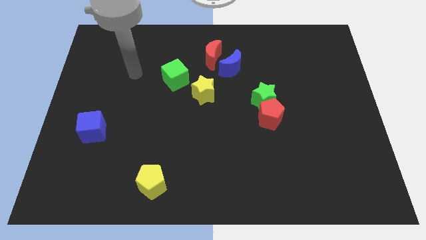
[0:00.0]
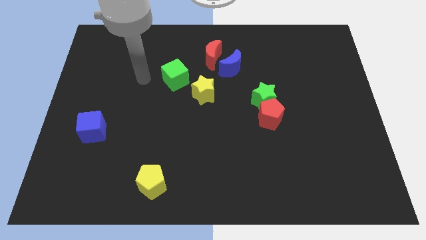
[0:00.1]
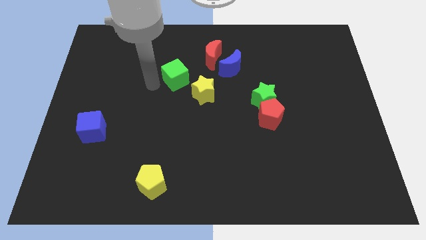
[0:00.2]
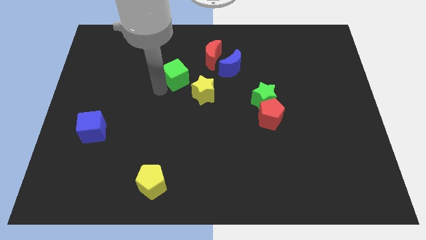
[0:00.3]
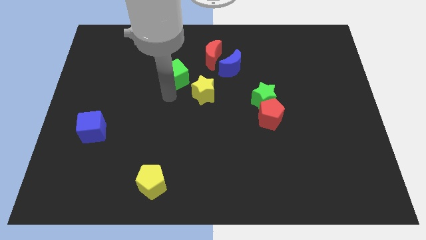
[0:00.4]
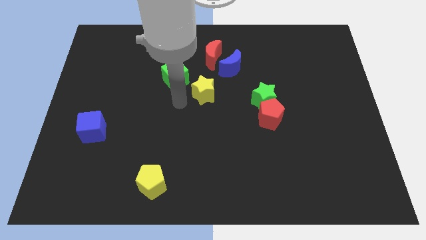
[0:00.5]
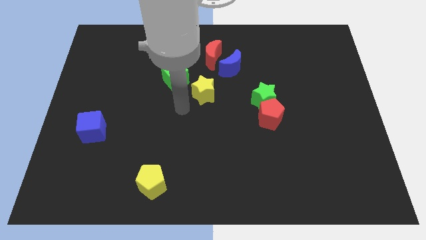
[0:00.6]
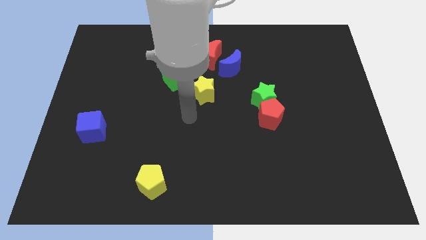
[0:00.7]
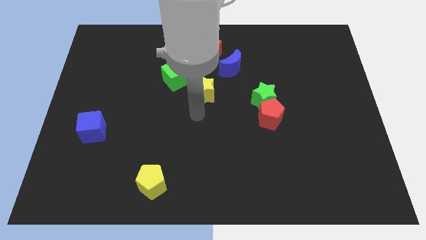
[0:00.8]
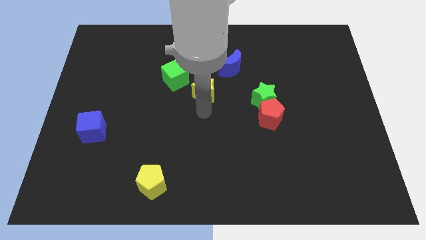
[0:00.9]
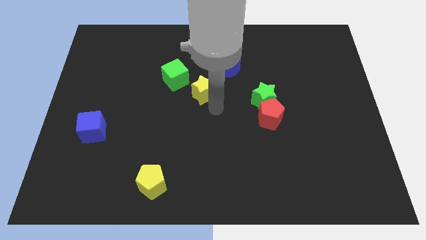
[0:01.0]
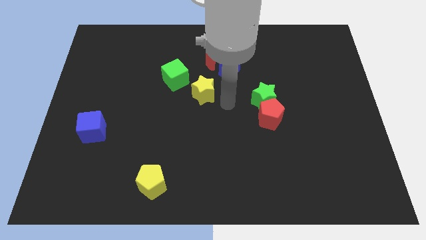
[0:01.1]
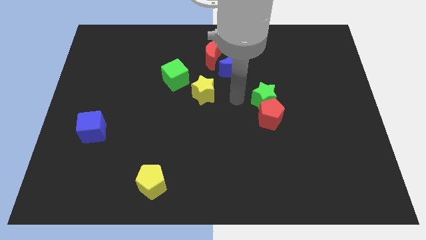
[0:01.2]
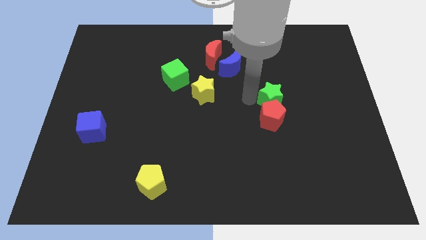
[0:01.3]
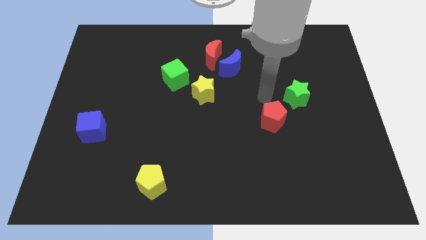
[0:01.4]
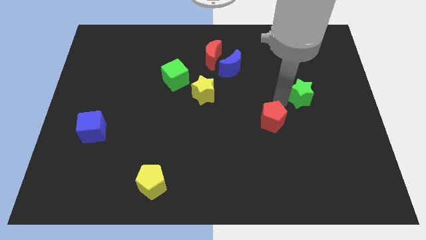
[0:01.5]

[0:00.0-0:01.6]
pull the red pentagon apart from the green star

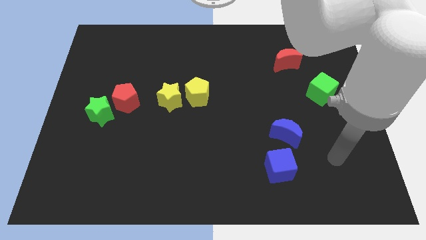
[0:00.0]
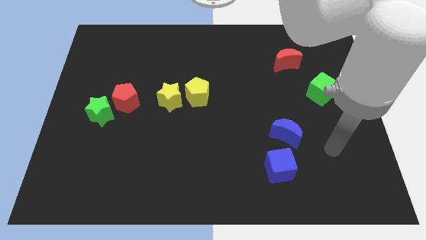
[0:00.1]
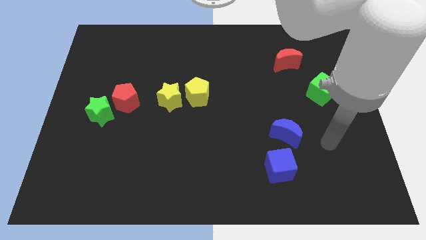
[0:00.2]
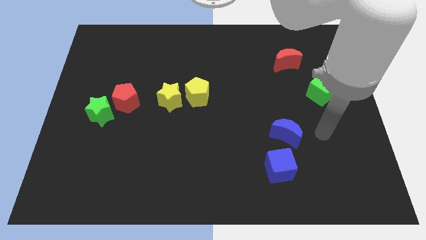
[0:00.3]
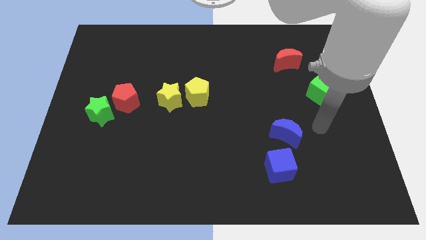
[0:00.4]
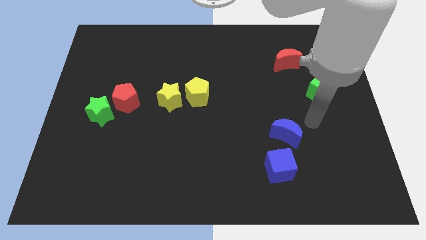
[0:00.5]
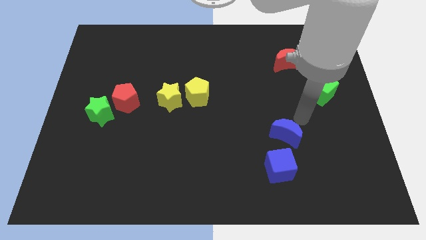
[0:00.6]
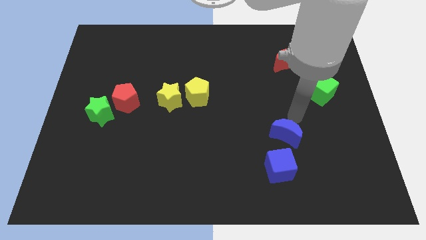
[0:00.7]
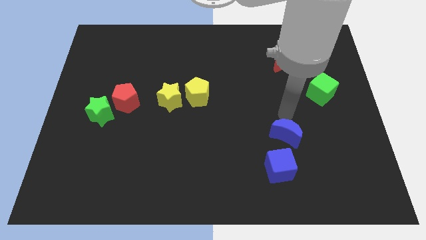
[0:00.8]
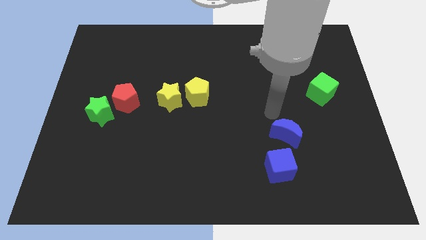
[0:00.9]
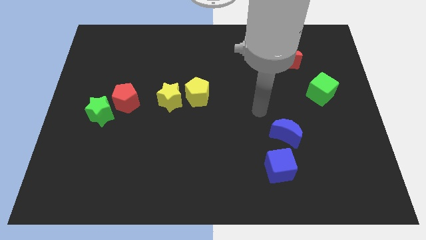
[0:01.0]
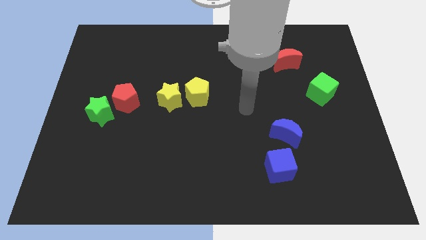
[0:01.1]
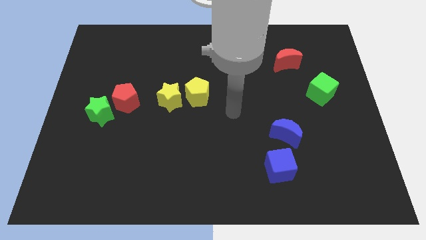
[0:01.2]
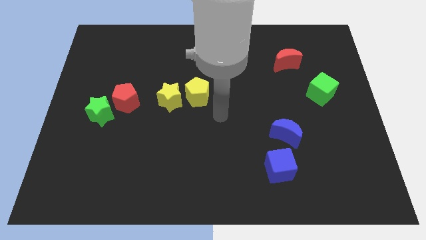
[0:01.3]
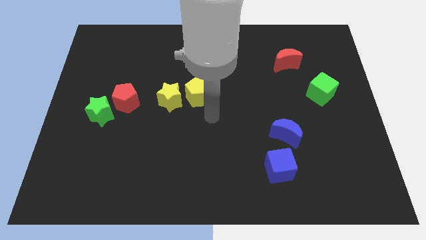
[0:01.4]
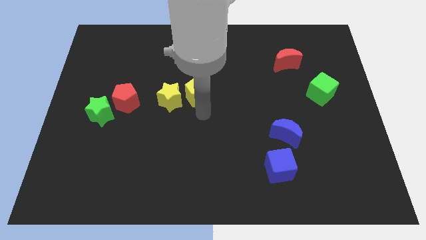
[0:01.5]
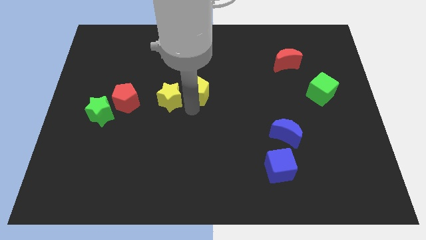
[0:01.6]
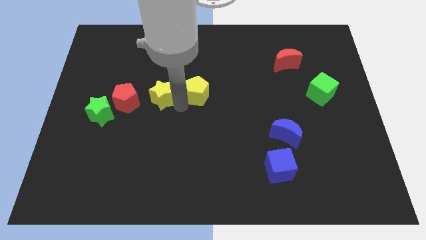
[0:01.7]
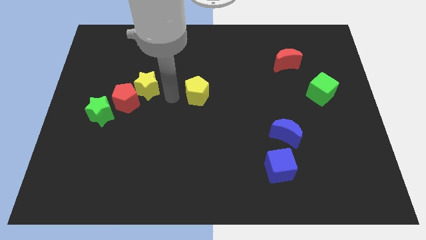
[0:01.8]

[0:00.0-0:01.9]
separate the yellow pentagon from the yellow star

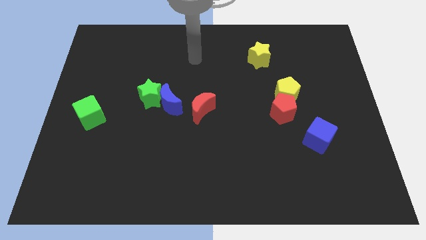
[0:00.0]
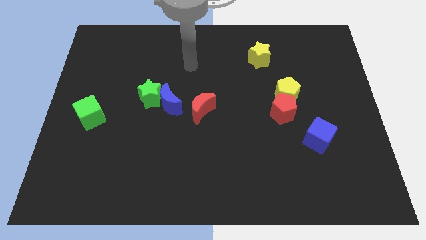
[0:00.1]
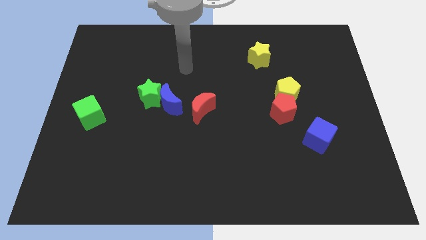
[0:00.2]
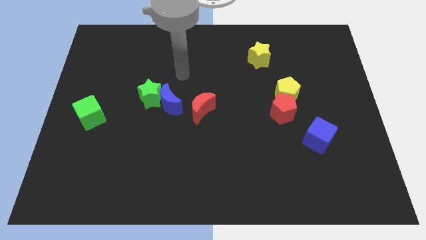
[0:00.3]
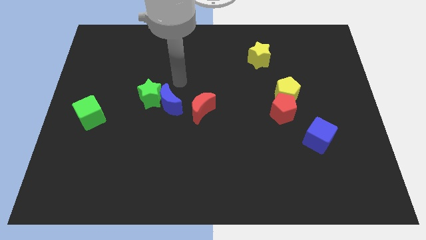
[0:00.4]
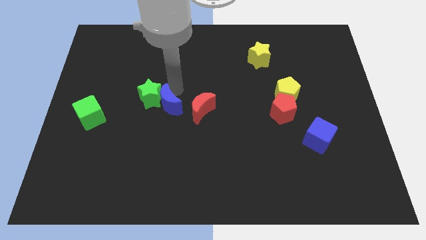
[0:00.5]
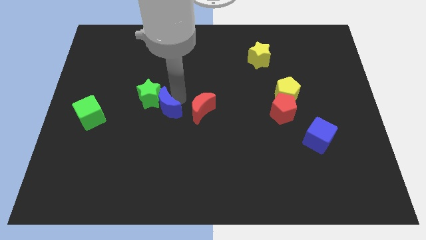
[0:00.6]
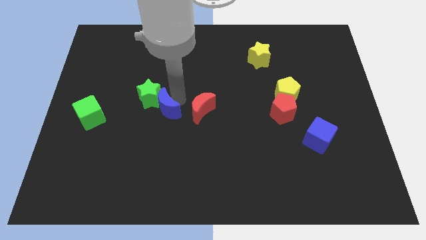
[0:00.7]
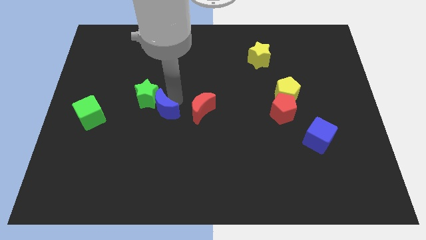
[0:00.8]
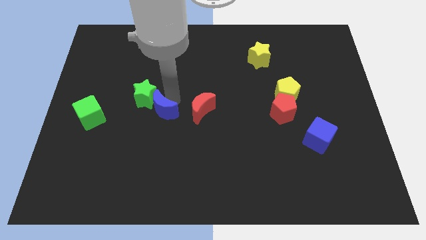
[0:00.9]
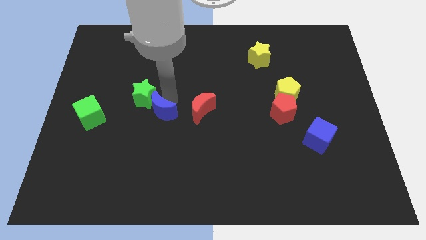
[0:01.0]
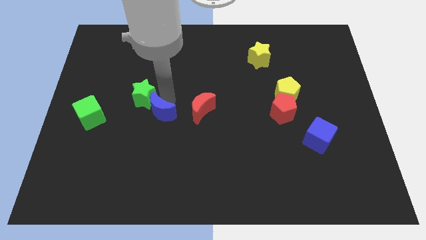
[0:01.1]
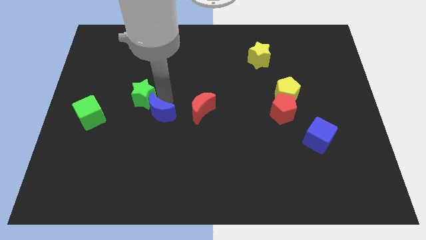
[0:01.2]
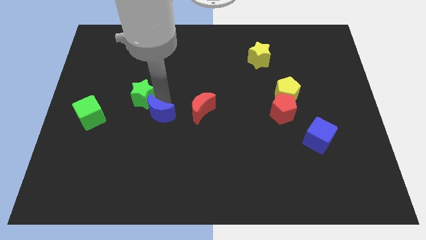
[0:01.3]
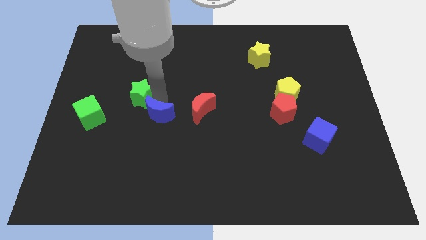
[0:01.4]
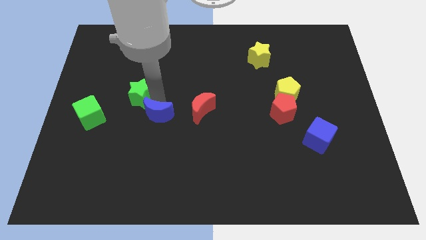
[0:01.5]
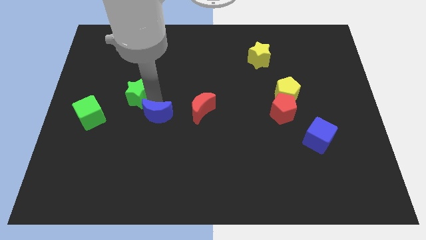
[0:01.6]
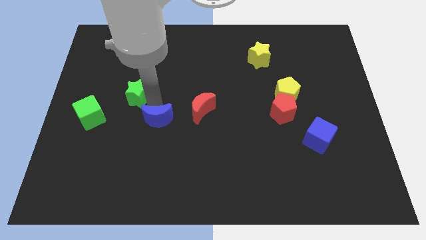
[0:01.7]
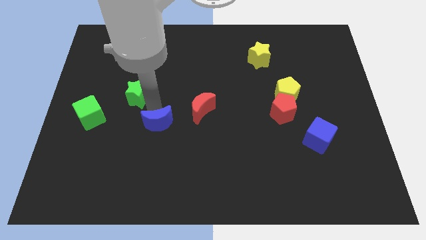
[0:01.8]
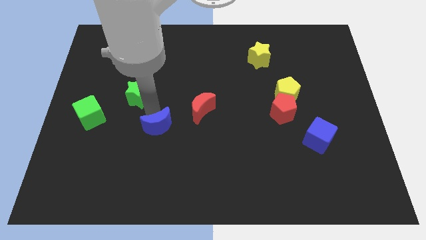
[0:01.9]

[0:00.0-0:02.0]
separate the green star from the blue moon

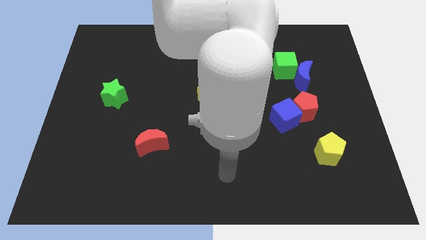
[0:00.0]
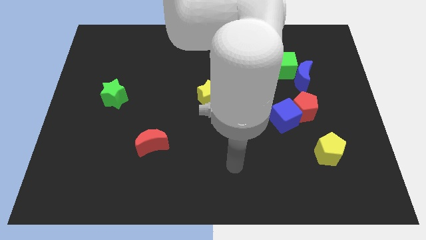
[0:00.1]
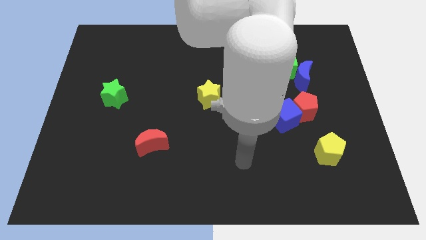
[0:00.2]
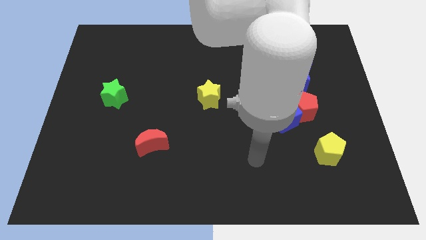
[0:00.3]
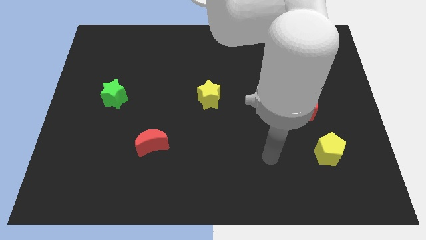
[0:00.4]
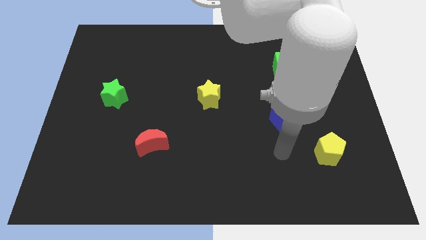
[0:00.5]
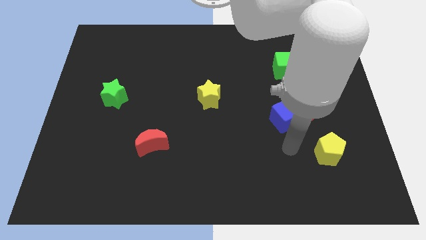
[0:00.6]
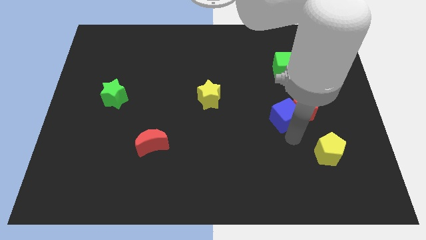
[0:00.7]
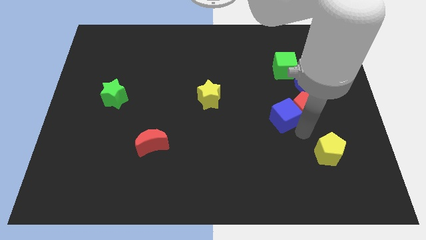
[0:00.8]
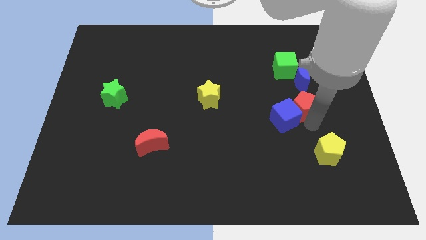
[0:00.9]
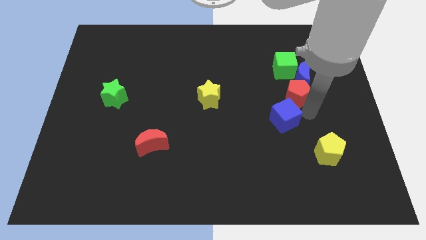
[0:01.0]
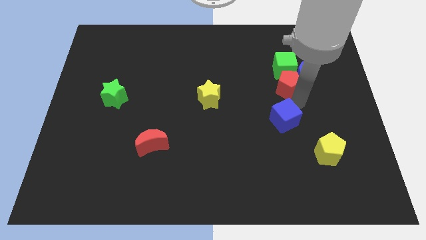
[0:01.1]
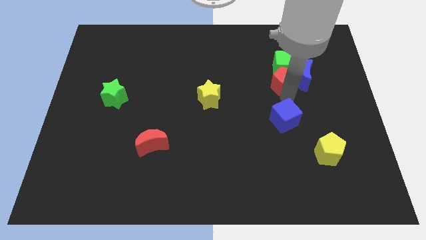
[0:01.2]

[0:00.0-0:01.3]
separate the blue cube from the red pentagon

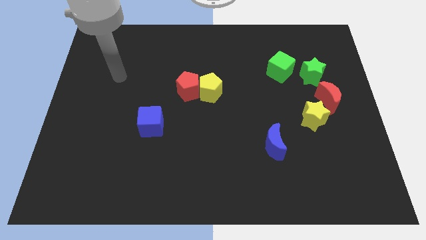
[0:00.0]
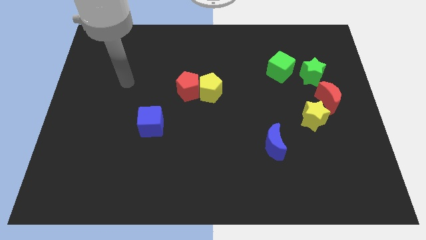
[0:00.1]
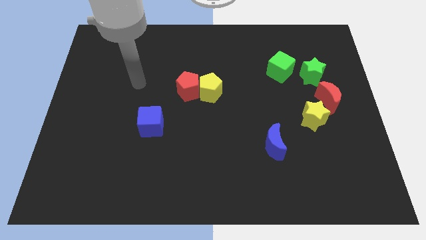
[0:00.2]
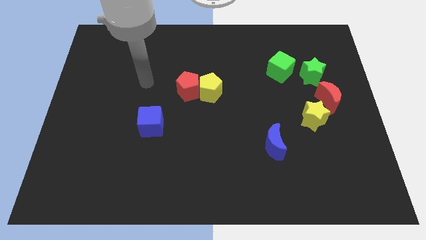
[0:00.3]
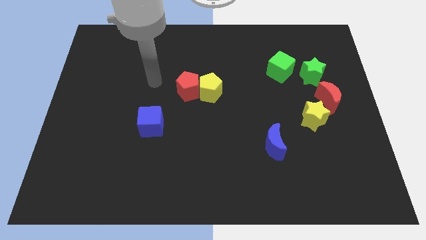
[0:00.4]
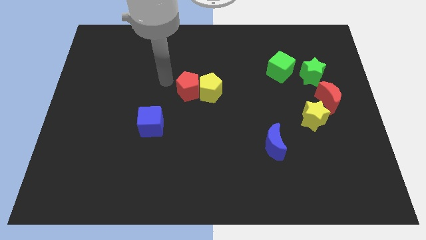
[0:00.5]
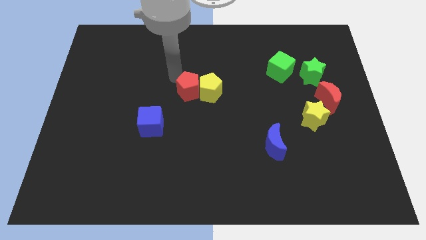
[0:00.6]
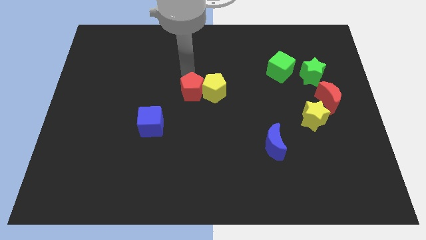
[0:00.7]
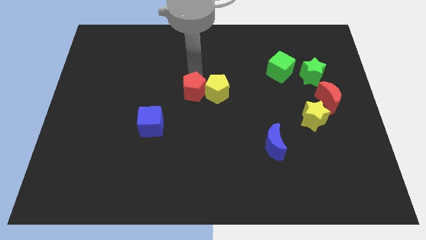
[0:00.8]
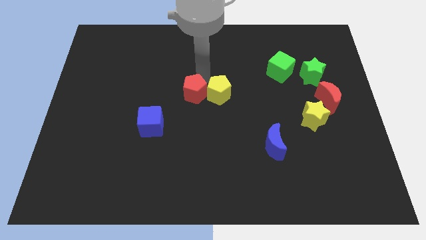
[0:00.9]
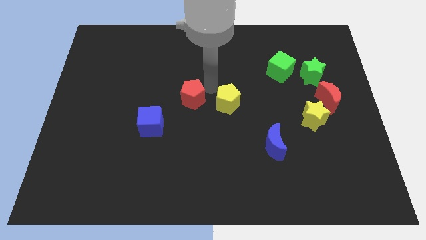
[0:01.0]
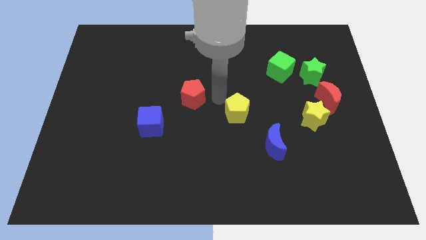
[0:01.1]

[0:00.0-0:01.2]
move the red pentagon away from the yellow pentagon

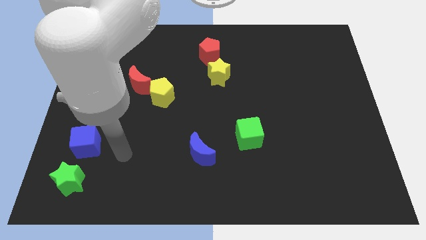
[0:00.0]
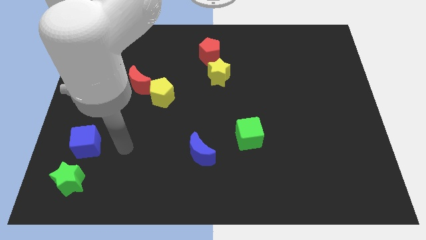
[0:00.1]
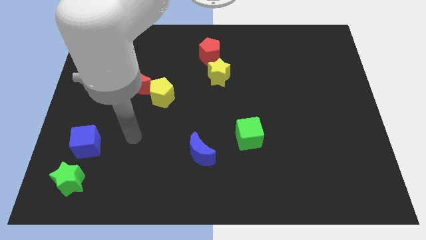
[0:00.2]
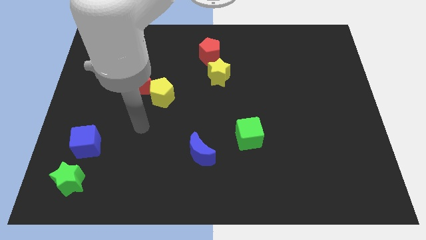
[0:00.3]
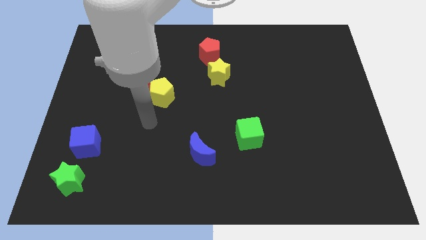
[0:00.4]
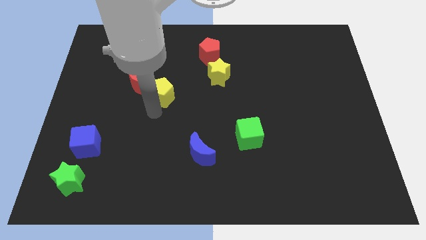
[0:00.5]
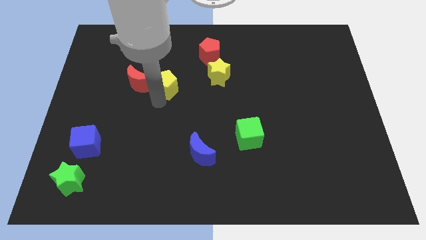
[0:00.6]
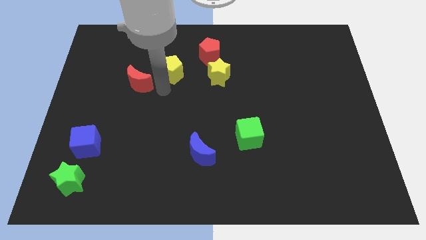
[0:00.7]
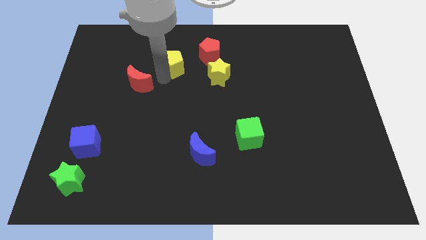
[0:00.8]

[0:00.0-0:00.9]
separate the red moon from the yellow pentagon

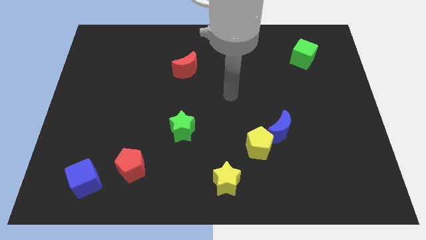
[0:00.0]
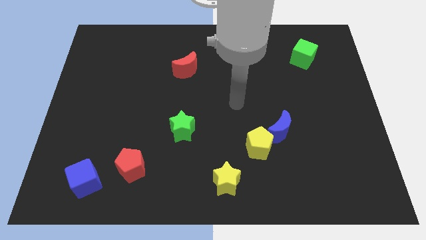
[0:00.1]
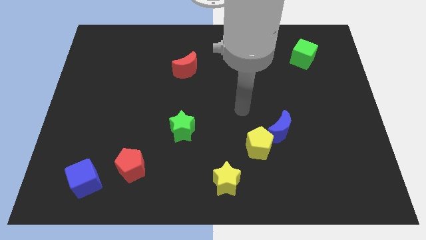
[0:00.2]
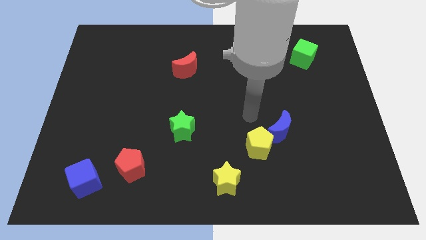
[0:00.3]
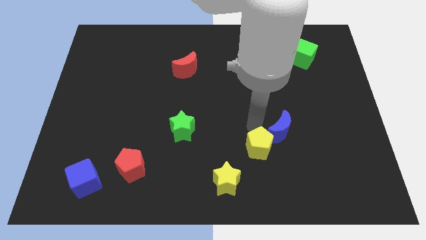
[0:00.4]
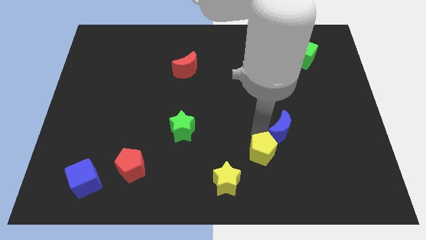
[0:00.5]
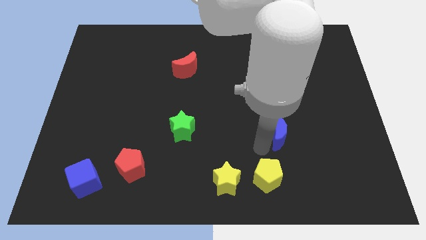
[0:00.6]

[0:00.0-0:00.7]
pull the blue moon apart from the yellow pentagon
